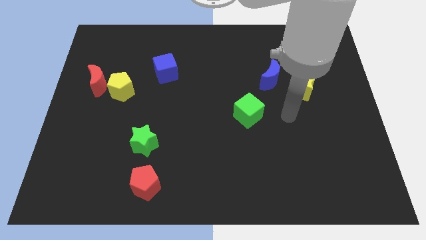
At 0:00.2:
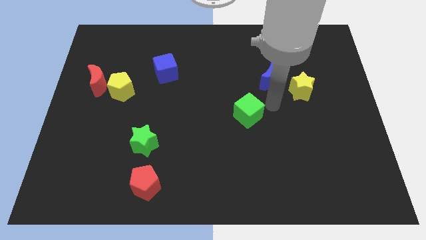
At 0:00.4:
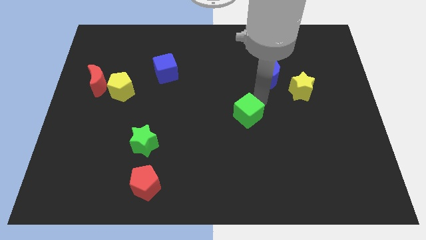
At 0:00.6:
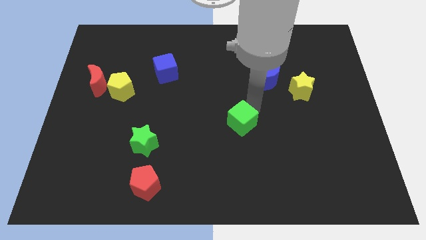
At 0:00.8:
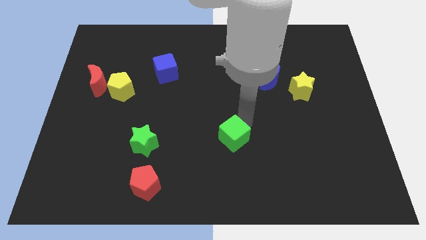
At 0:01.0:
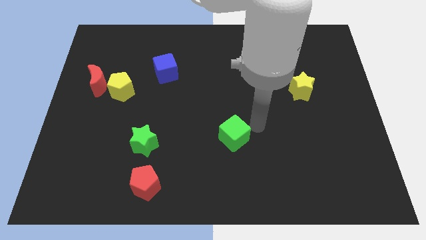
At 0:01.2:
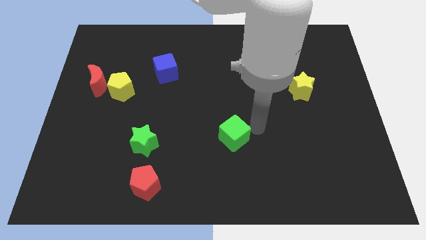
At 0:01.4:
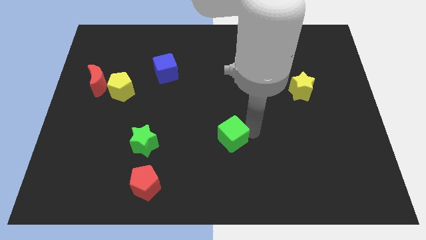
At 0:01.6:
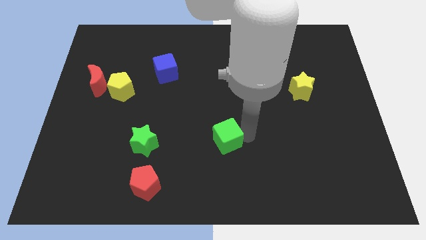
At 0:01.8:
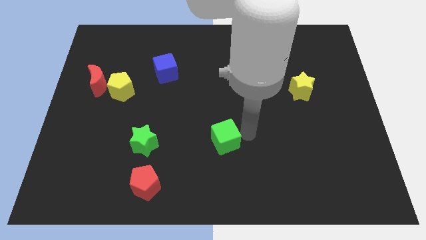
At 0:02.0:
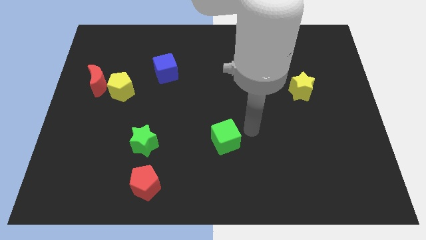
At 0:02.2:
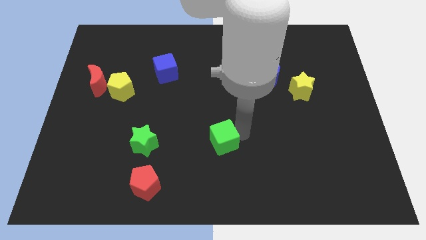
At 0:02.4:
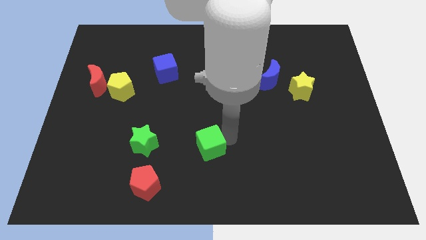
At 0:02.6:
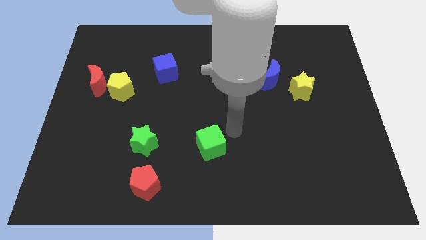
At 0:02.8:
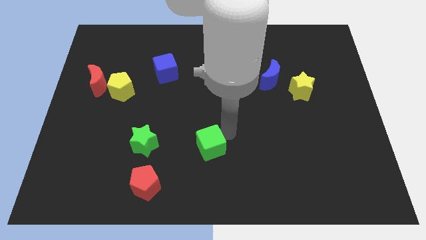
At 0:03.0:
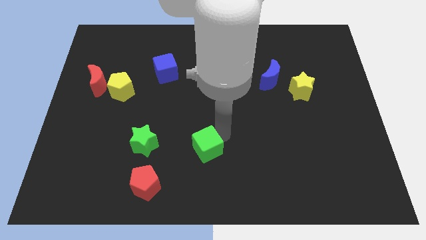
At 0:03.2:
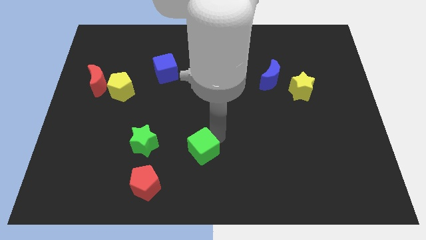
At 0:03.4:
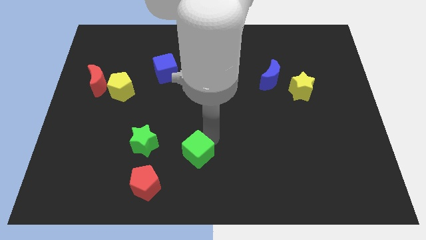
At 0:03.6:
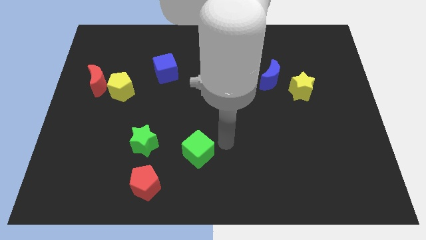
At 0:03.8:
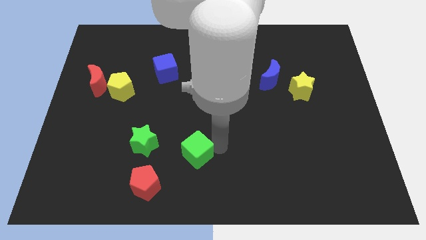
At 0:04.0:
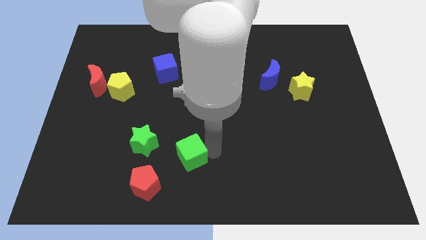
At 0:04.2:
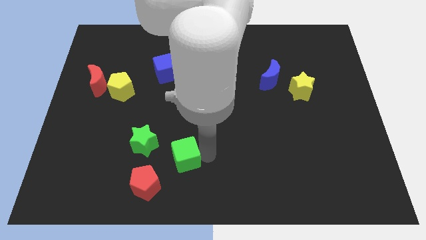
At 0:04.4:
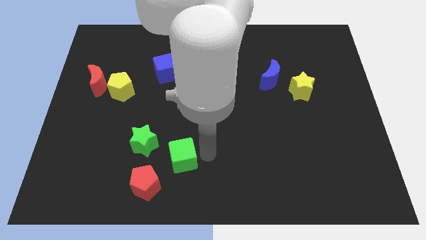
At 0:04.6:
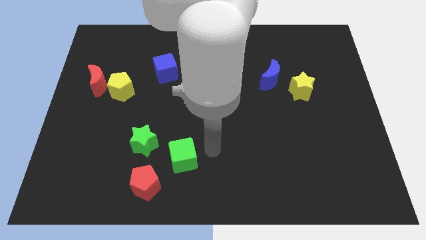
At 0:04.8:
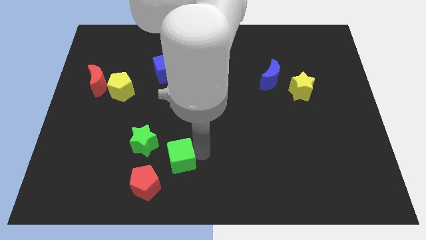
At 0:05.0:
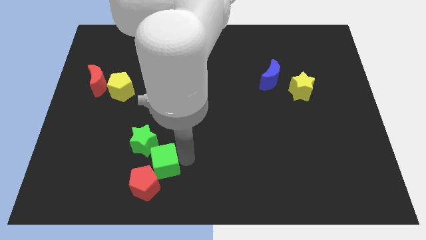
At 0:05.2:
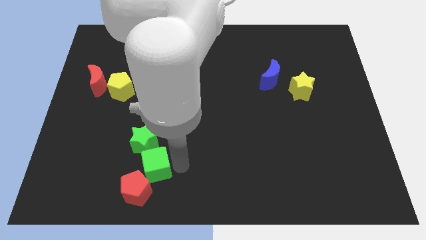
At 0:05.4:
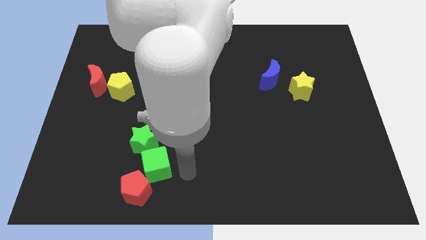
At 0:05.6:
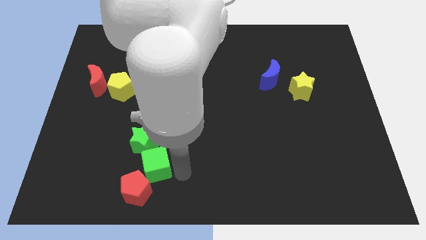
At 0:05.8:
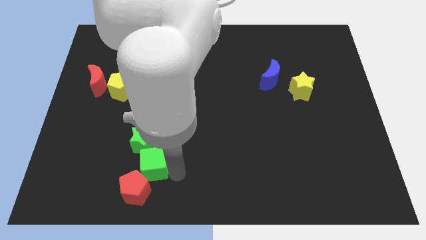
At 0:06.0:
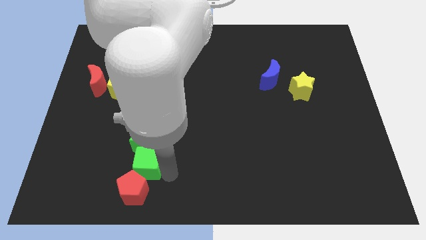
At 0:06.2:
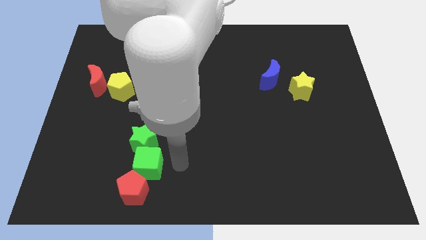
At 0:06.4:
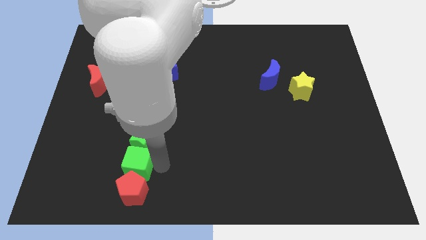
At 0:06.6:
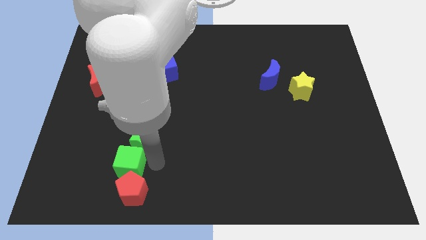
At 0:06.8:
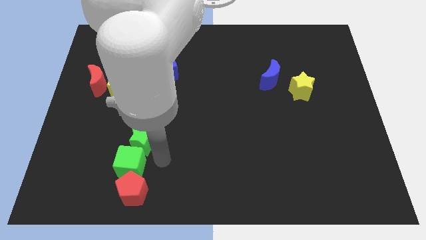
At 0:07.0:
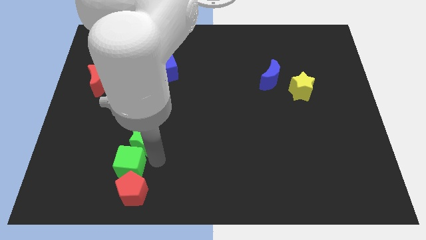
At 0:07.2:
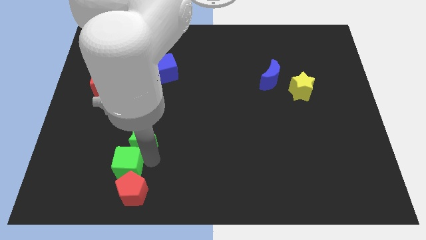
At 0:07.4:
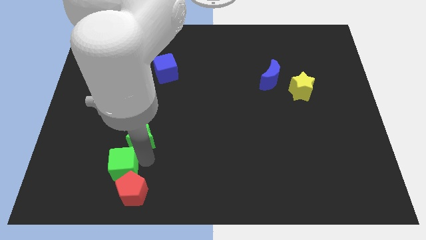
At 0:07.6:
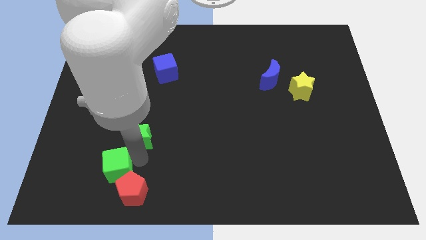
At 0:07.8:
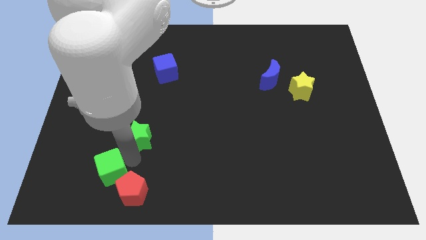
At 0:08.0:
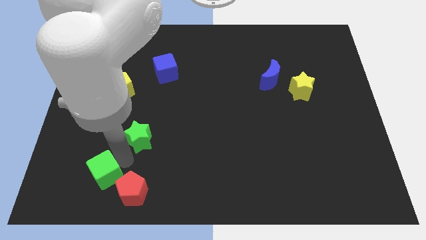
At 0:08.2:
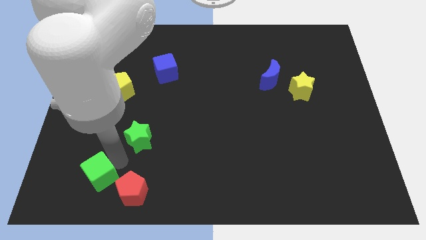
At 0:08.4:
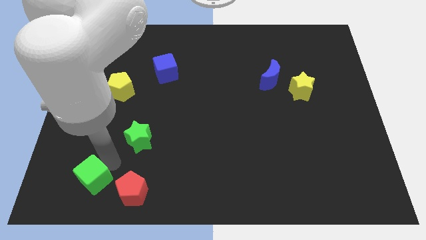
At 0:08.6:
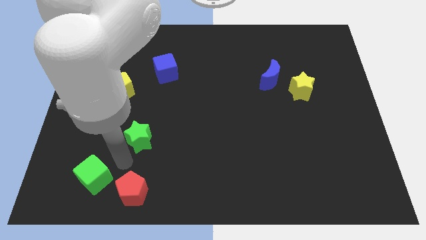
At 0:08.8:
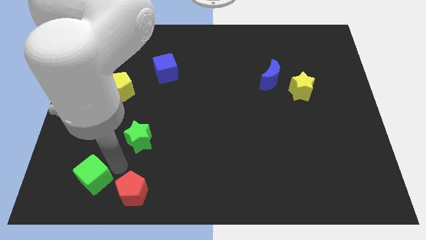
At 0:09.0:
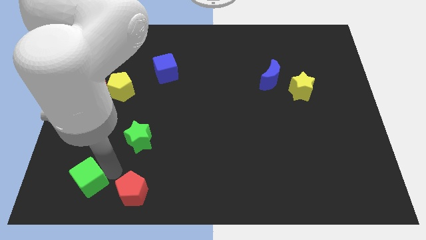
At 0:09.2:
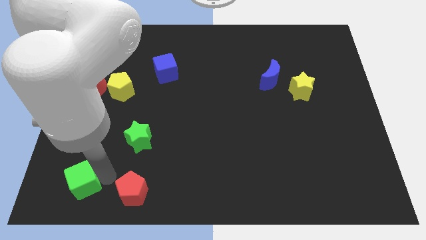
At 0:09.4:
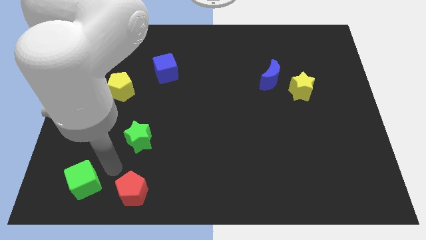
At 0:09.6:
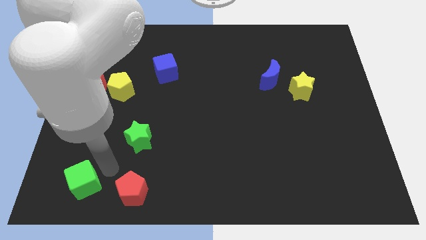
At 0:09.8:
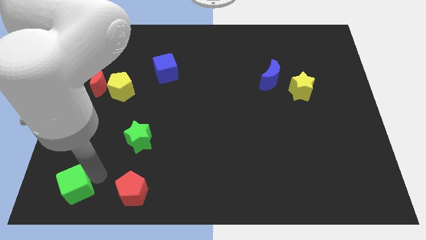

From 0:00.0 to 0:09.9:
put the green cube to the bottom left corner

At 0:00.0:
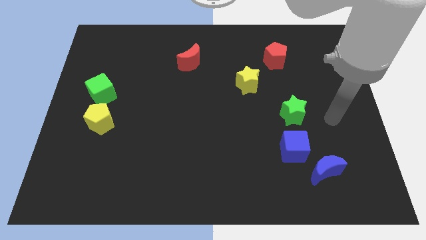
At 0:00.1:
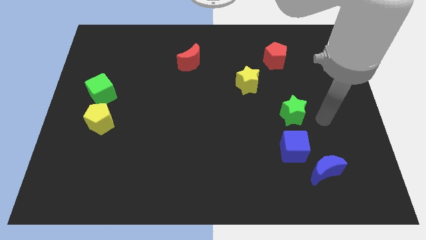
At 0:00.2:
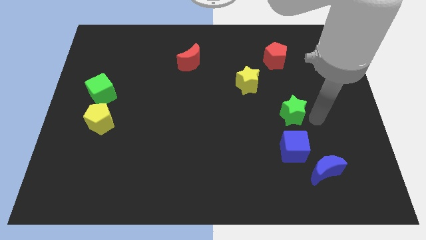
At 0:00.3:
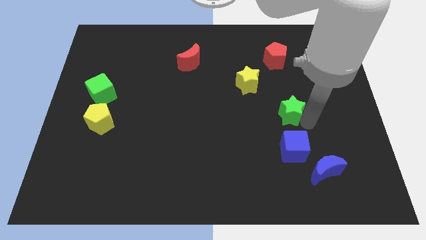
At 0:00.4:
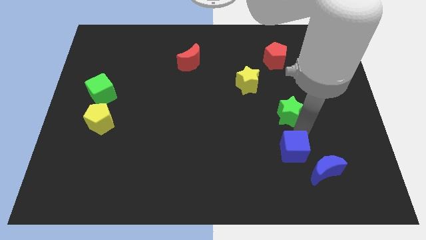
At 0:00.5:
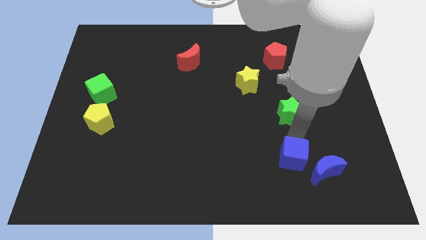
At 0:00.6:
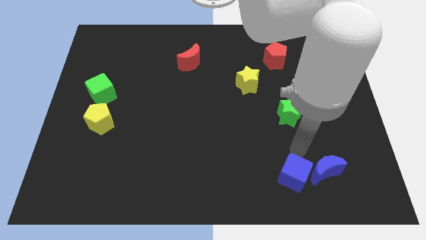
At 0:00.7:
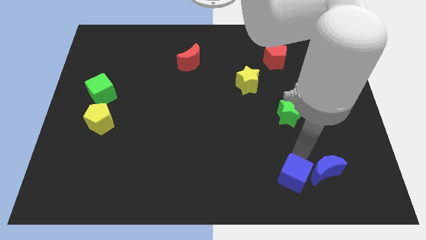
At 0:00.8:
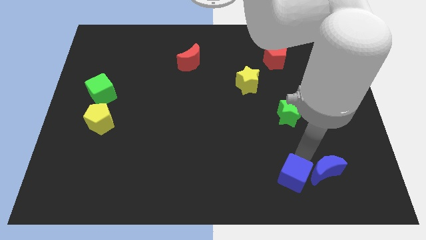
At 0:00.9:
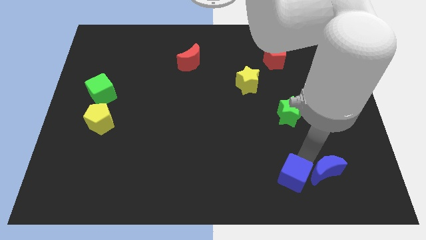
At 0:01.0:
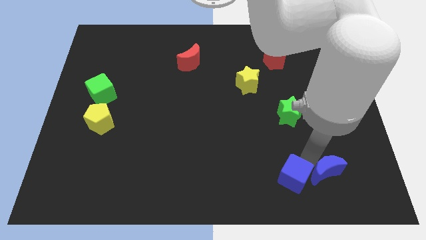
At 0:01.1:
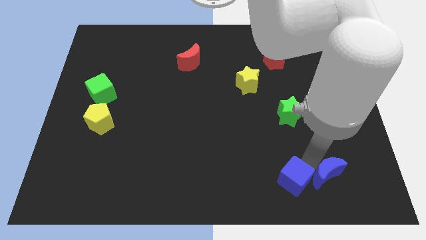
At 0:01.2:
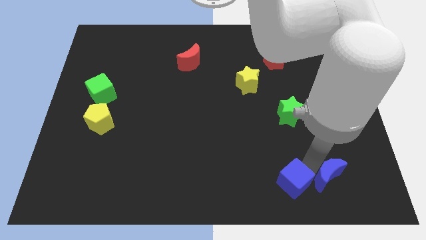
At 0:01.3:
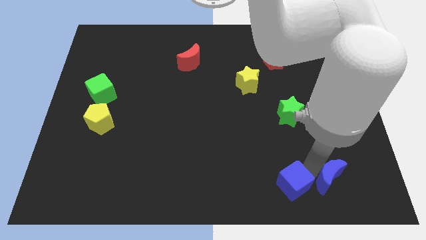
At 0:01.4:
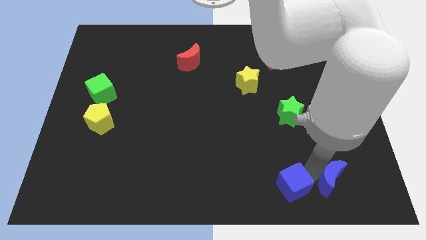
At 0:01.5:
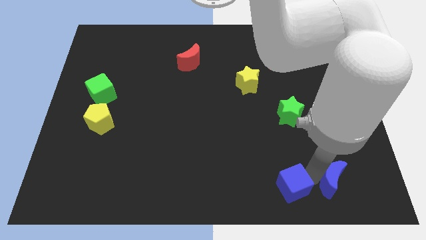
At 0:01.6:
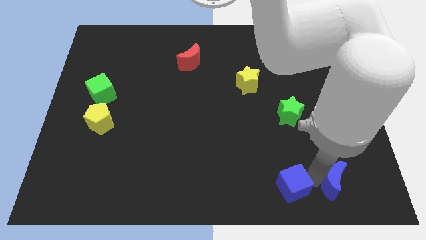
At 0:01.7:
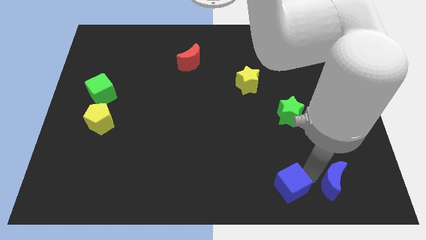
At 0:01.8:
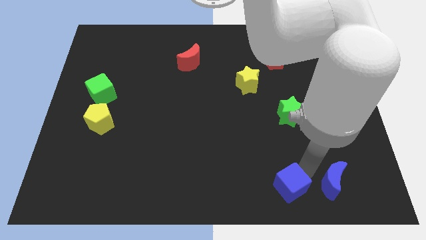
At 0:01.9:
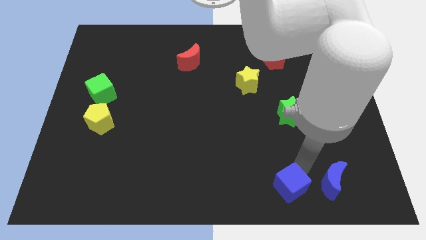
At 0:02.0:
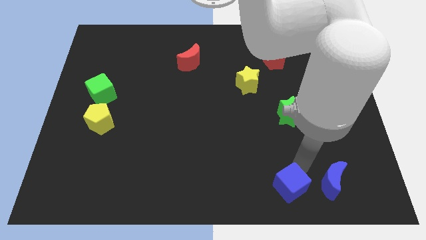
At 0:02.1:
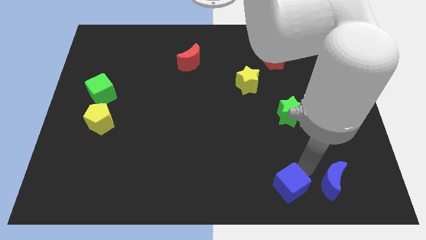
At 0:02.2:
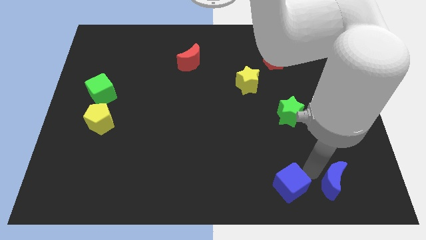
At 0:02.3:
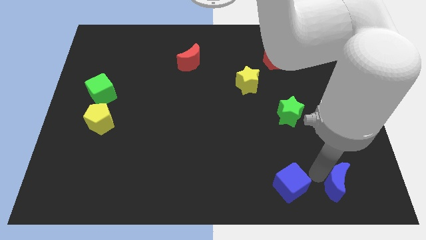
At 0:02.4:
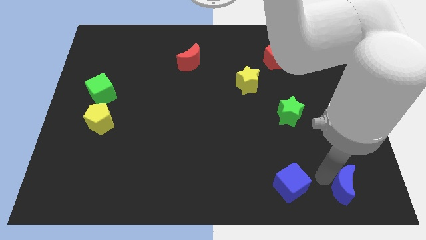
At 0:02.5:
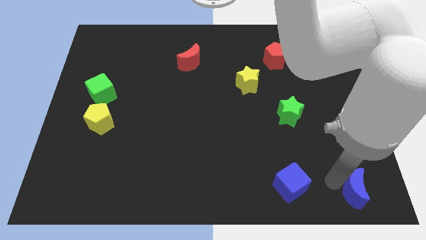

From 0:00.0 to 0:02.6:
put the blue moon to the bottom right
